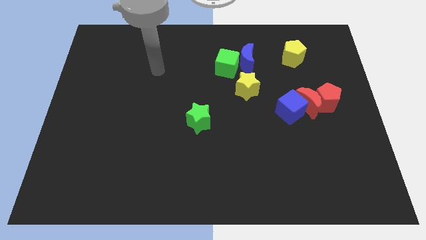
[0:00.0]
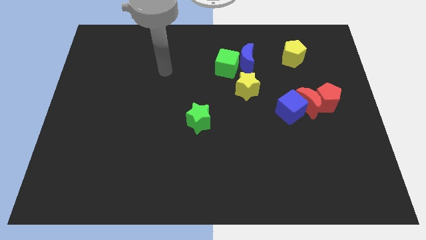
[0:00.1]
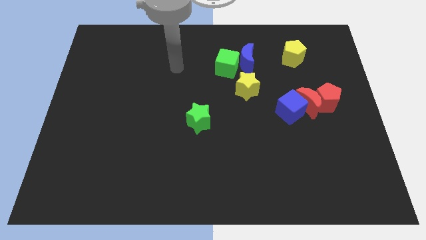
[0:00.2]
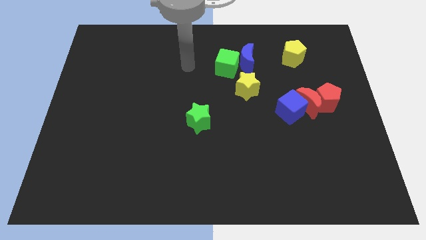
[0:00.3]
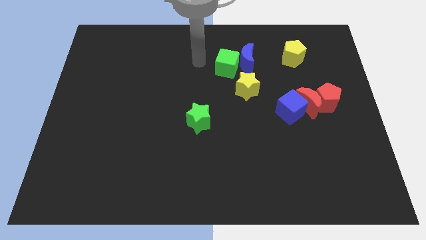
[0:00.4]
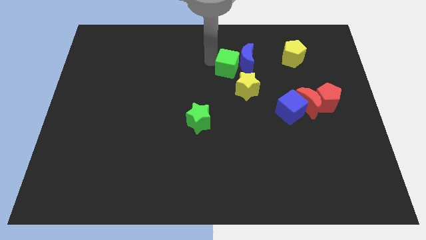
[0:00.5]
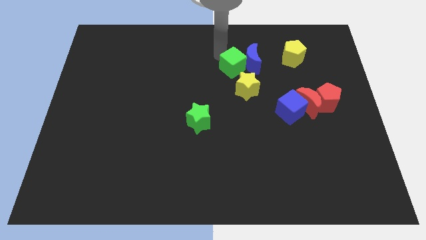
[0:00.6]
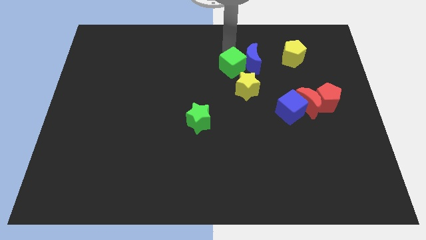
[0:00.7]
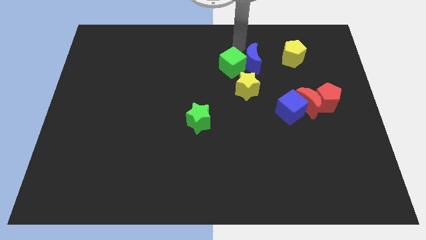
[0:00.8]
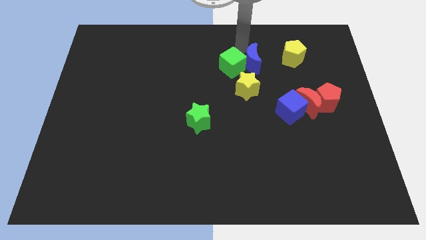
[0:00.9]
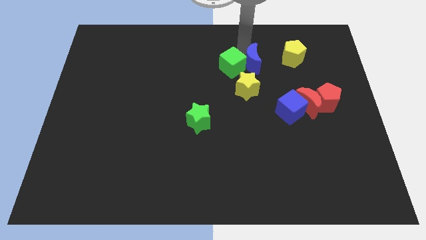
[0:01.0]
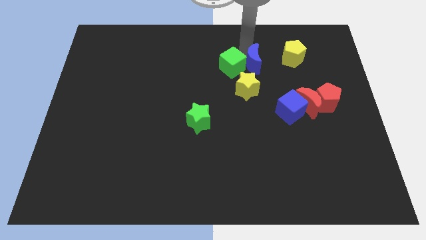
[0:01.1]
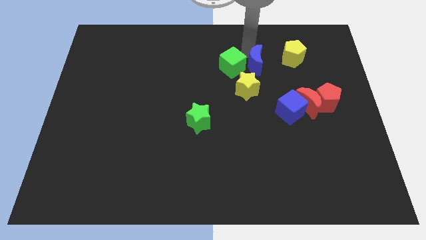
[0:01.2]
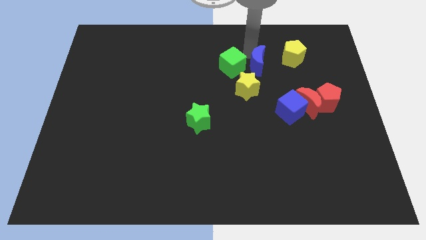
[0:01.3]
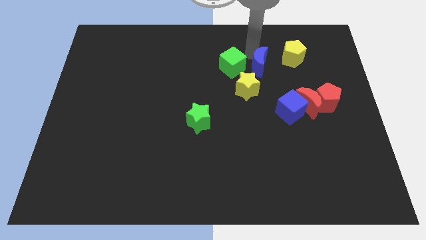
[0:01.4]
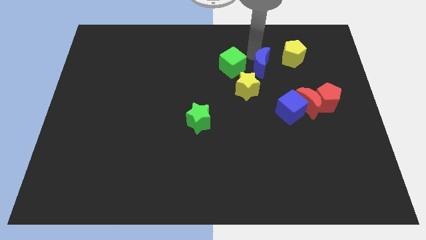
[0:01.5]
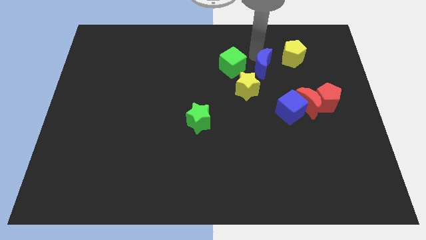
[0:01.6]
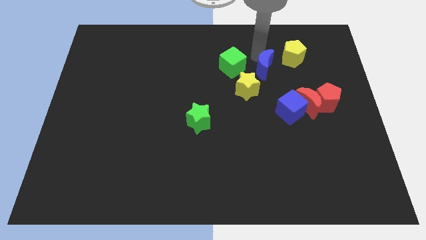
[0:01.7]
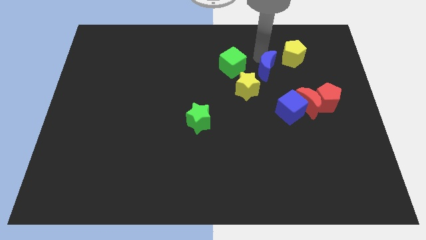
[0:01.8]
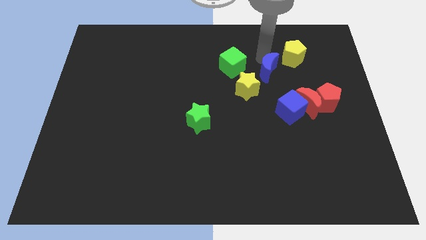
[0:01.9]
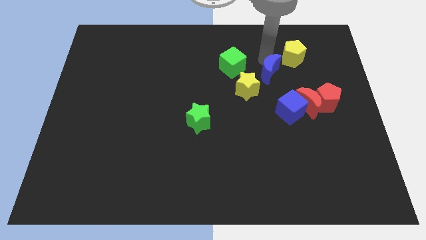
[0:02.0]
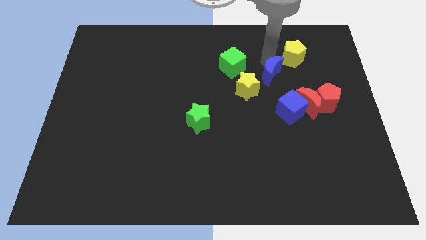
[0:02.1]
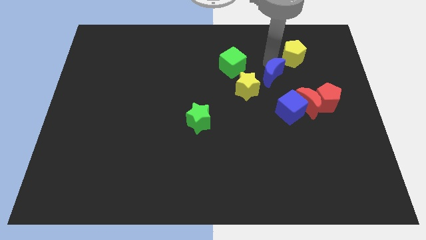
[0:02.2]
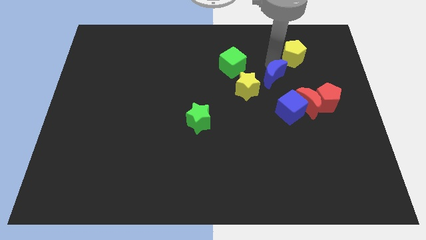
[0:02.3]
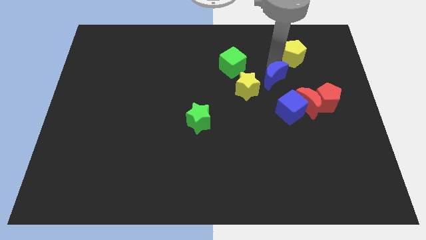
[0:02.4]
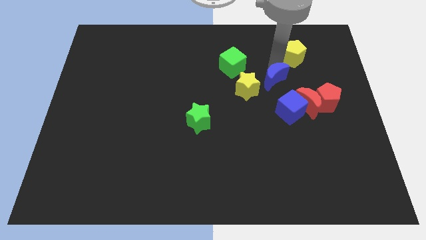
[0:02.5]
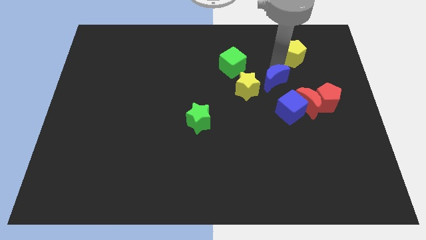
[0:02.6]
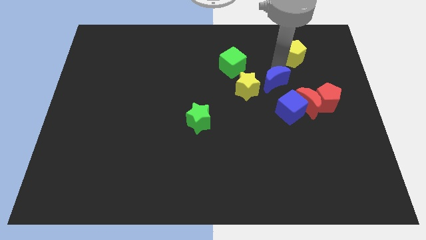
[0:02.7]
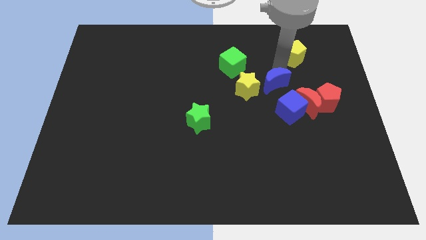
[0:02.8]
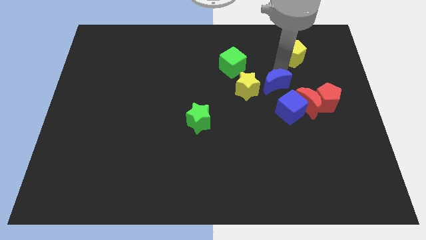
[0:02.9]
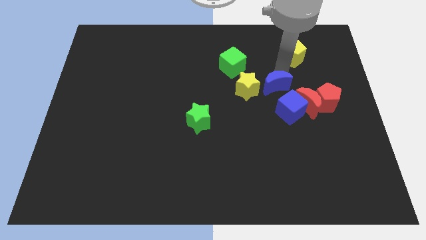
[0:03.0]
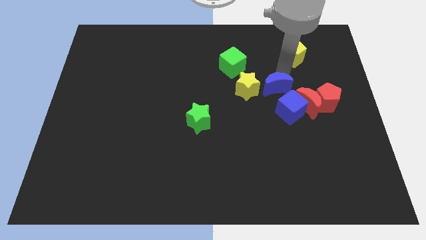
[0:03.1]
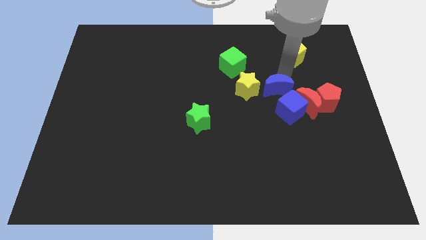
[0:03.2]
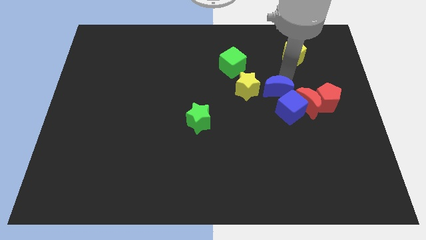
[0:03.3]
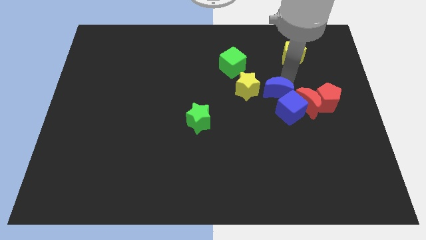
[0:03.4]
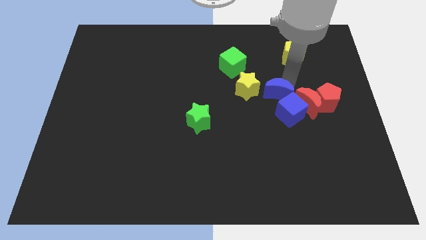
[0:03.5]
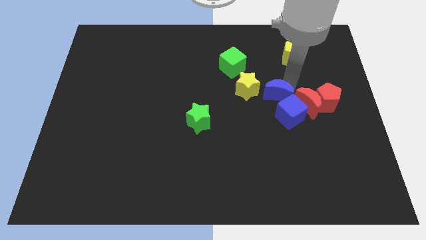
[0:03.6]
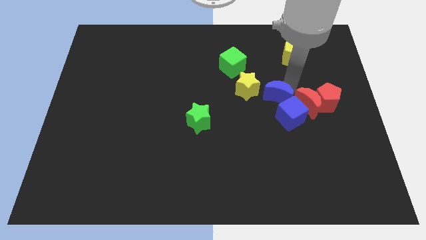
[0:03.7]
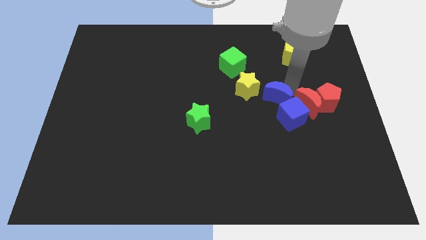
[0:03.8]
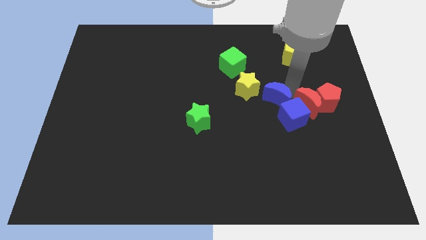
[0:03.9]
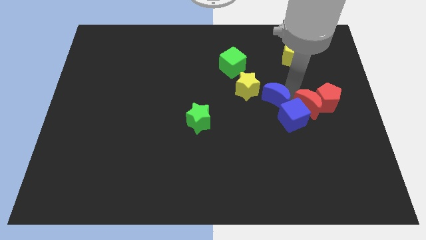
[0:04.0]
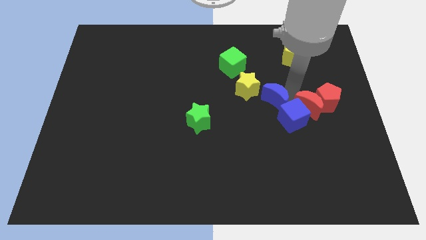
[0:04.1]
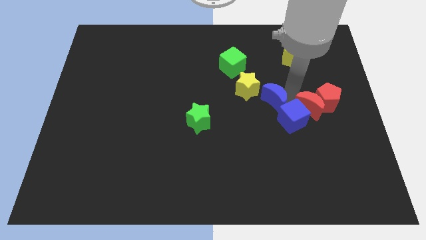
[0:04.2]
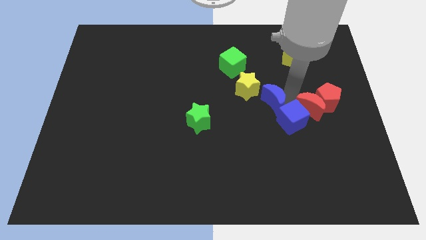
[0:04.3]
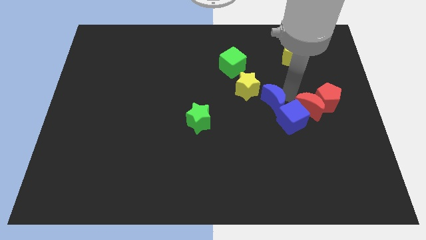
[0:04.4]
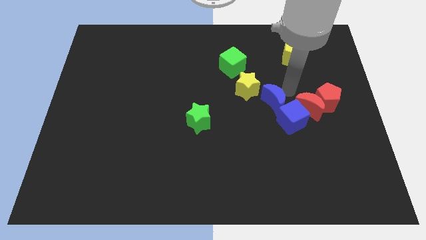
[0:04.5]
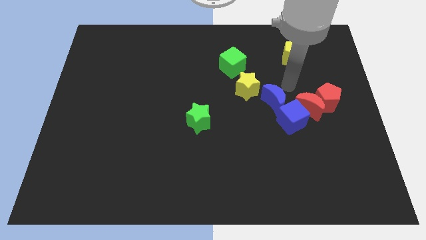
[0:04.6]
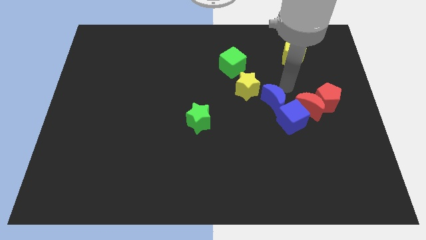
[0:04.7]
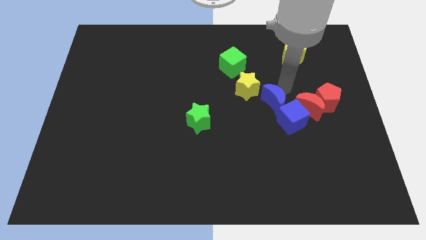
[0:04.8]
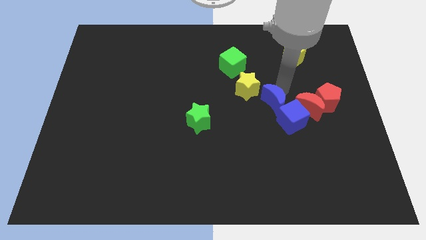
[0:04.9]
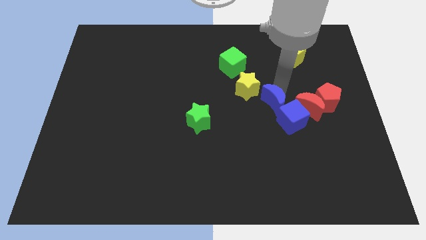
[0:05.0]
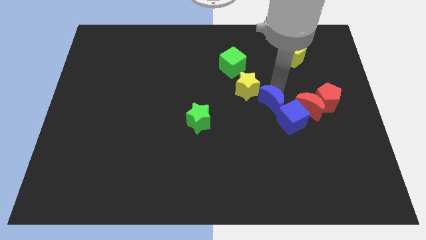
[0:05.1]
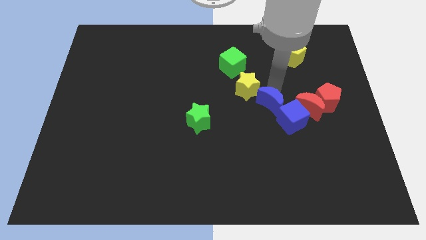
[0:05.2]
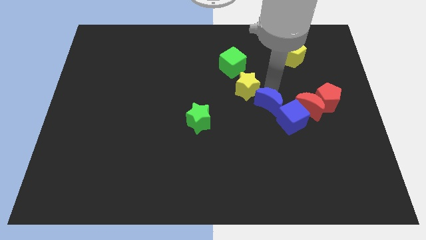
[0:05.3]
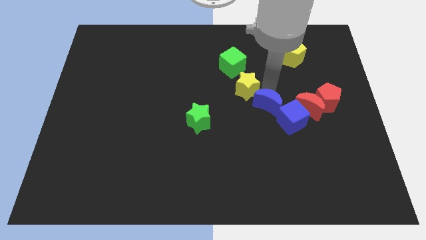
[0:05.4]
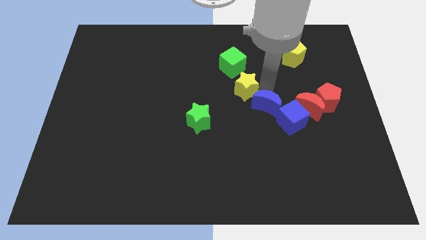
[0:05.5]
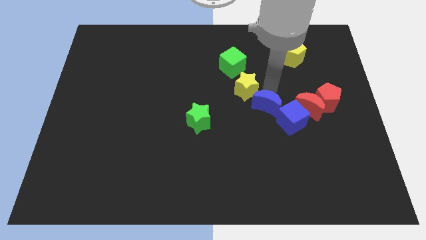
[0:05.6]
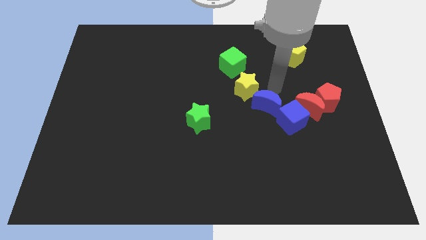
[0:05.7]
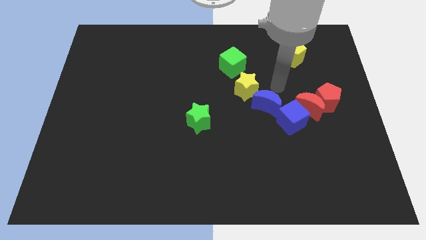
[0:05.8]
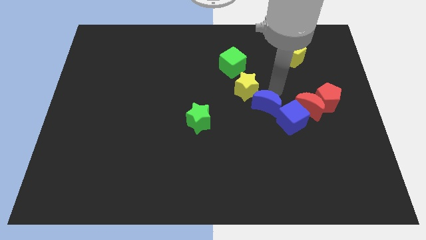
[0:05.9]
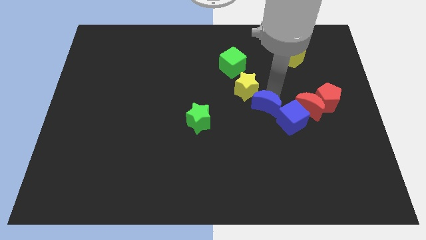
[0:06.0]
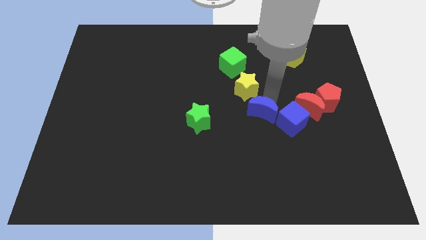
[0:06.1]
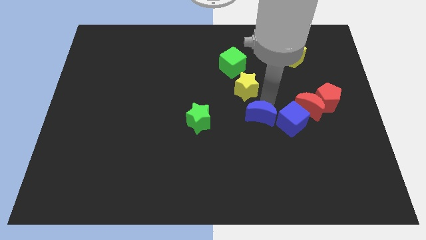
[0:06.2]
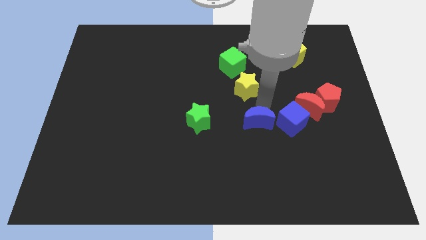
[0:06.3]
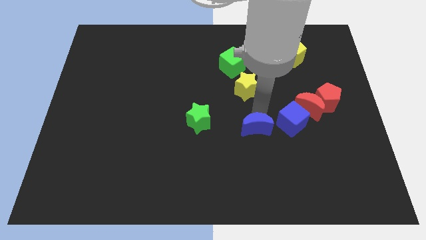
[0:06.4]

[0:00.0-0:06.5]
slide the blue moon downwards

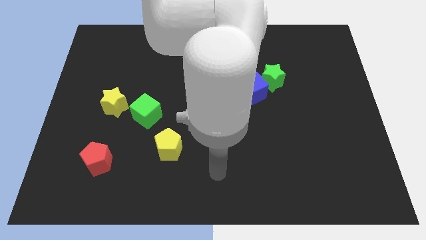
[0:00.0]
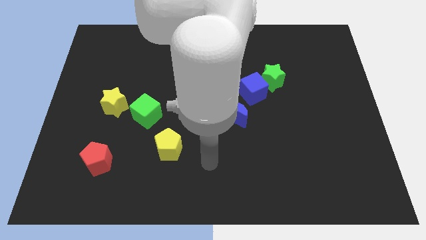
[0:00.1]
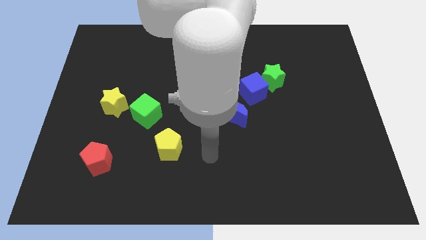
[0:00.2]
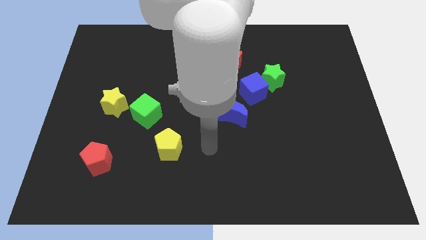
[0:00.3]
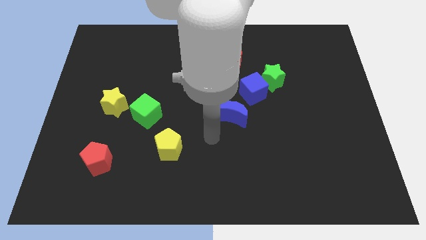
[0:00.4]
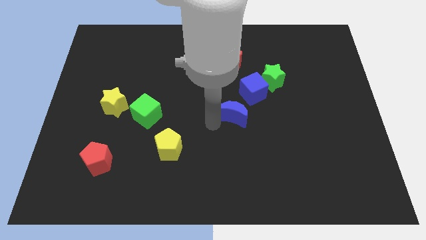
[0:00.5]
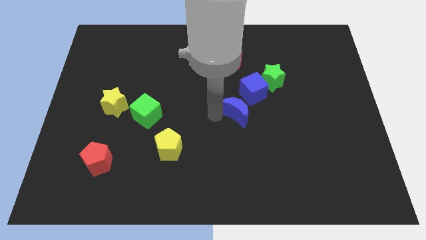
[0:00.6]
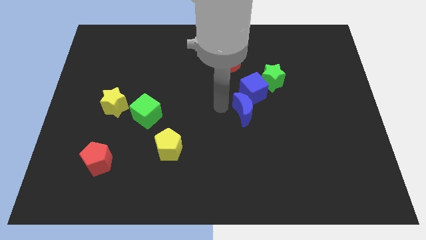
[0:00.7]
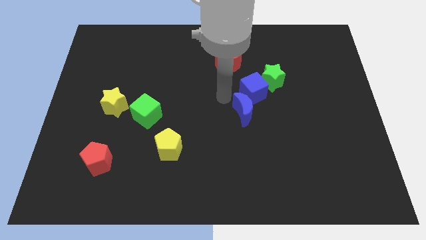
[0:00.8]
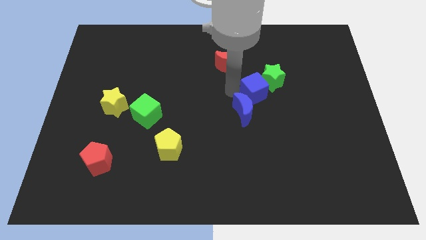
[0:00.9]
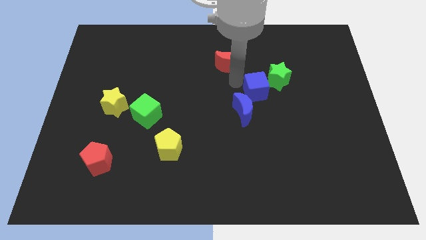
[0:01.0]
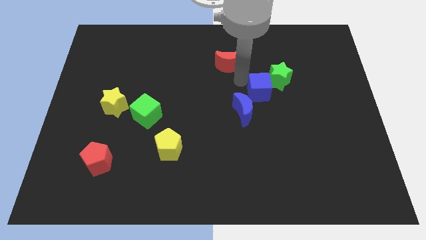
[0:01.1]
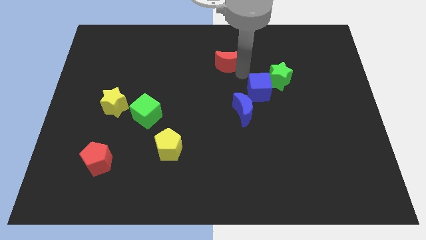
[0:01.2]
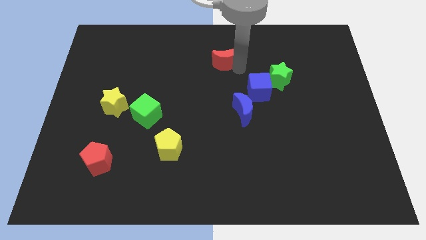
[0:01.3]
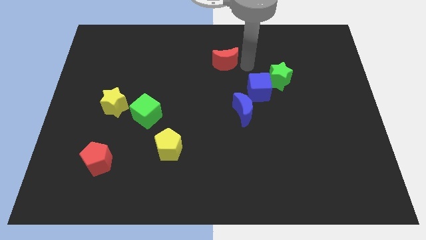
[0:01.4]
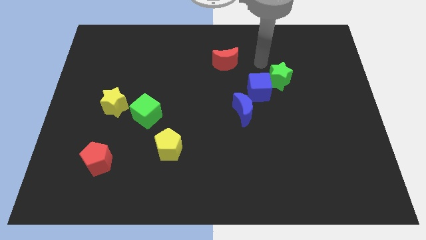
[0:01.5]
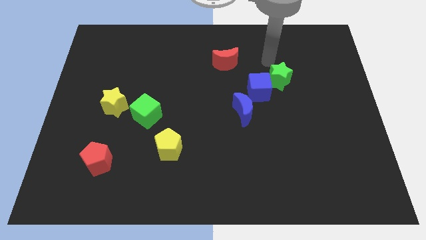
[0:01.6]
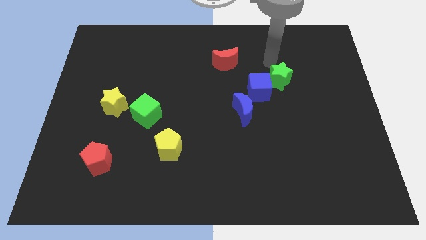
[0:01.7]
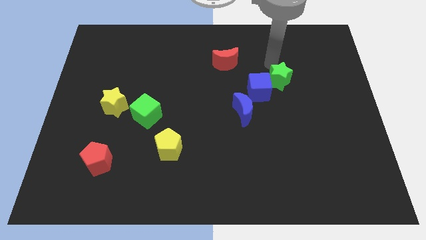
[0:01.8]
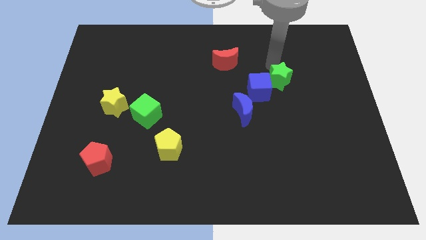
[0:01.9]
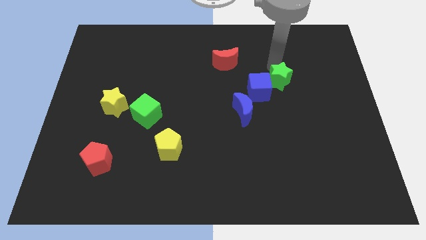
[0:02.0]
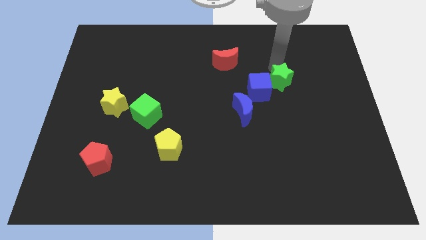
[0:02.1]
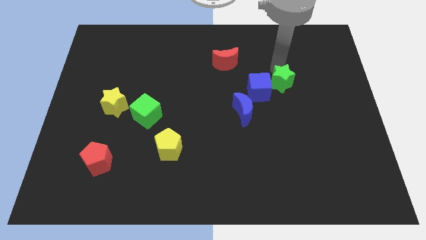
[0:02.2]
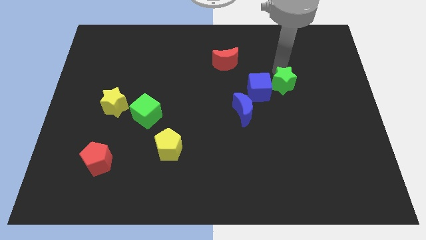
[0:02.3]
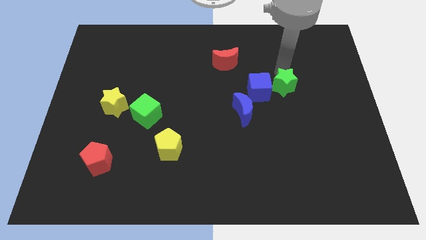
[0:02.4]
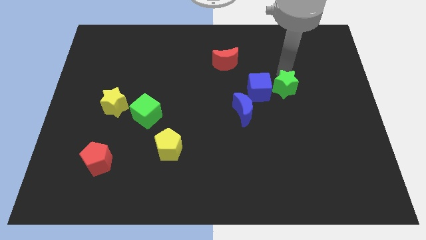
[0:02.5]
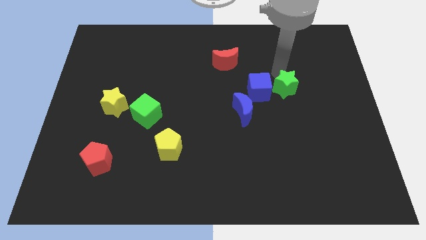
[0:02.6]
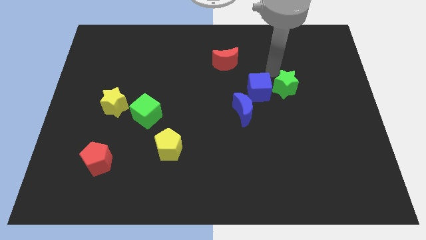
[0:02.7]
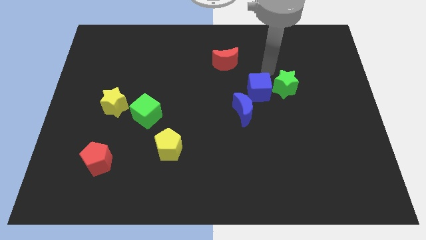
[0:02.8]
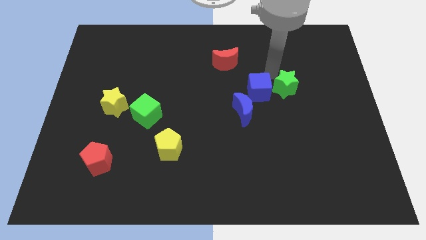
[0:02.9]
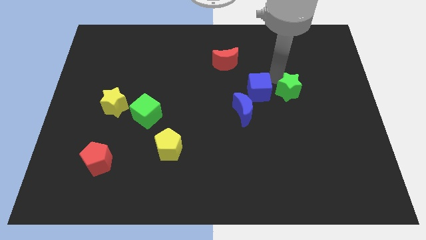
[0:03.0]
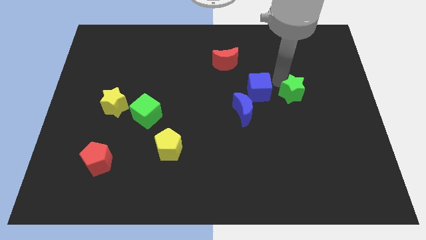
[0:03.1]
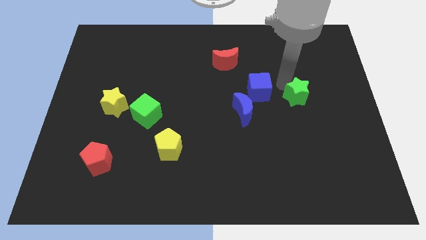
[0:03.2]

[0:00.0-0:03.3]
slightly move the green star down and right
